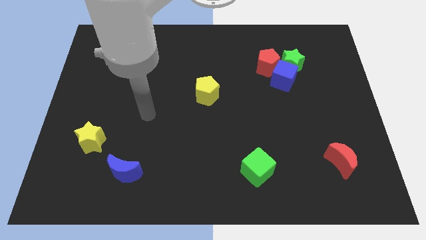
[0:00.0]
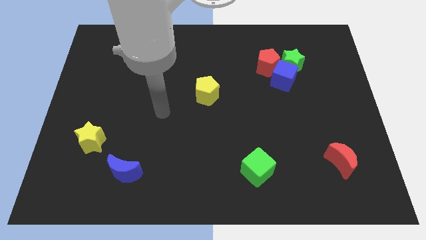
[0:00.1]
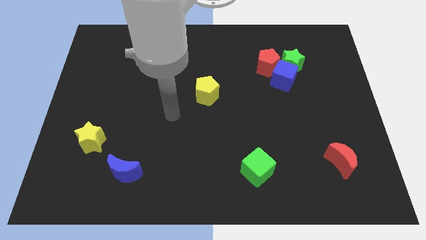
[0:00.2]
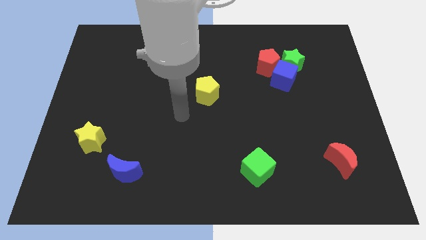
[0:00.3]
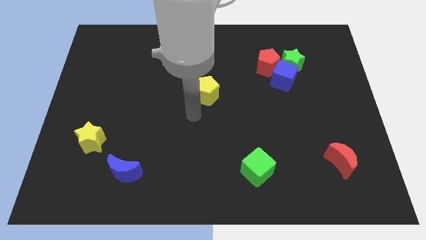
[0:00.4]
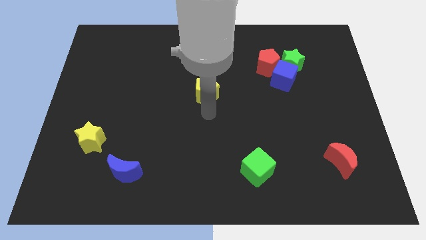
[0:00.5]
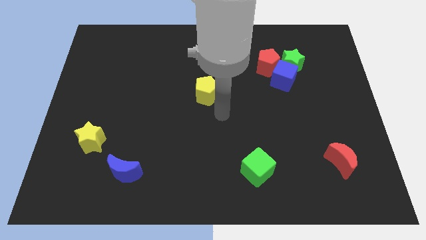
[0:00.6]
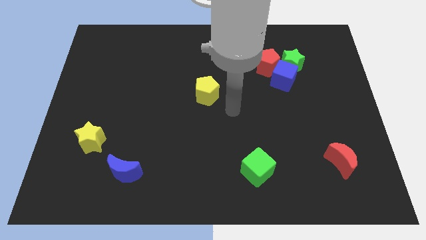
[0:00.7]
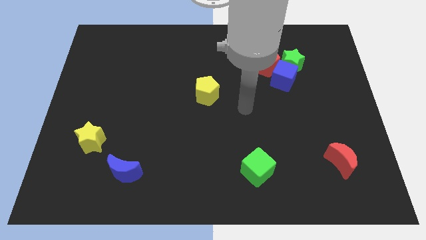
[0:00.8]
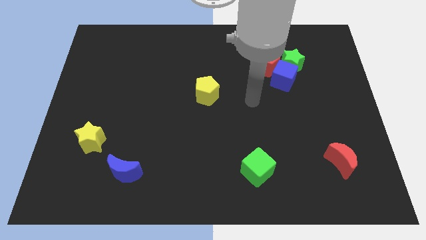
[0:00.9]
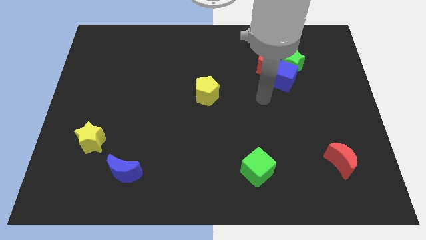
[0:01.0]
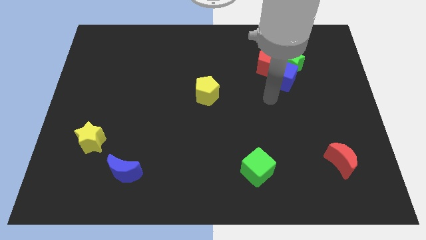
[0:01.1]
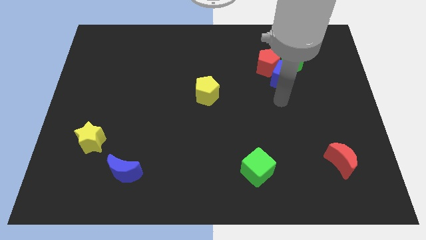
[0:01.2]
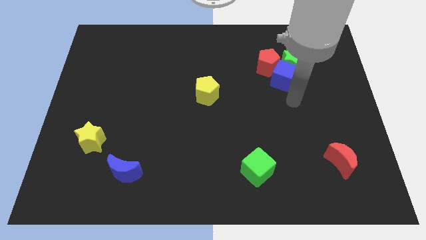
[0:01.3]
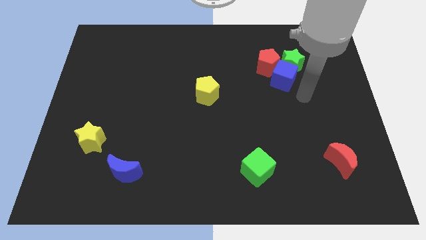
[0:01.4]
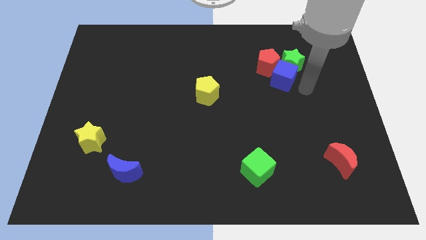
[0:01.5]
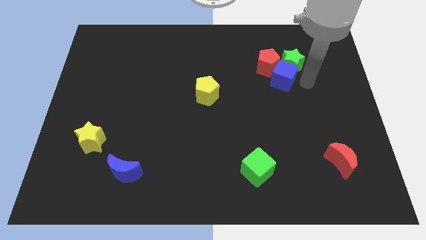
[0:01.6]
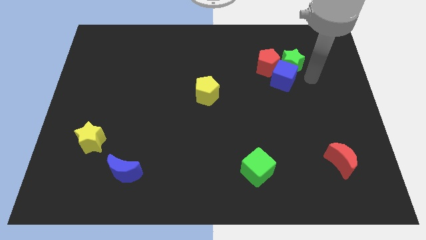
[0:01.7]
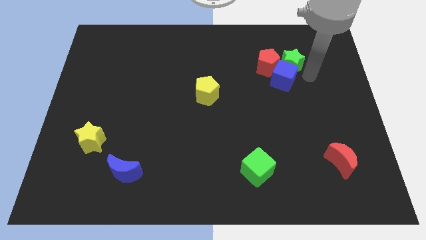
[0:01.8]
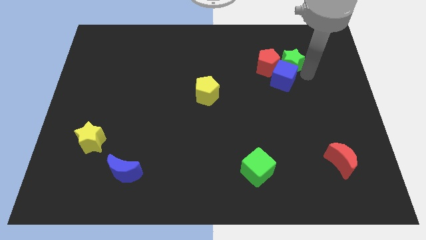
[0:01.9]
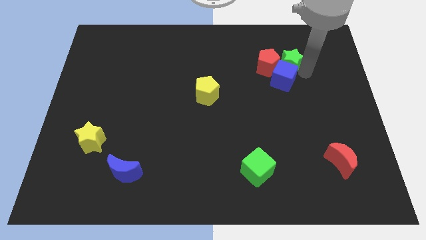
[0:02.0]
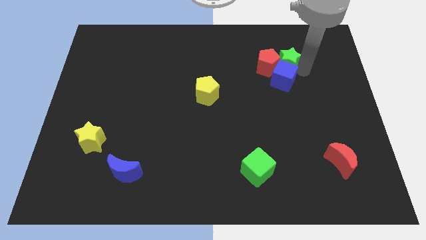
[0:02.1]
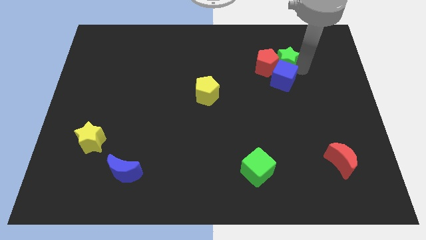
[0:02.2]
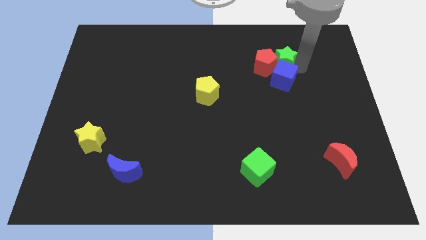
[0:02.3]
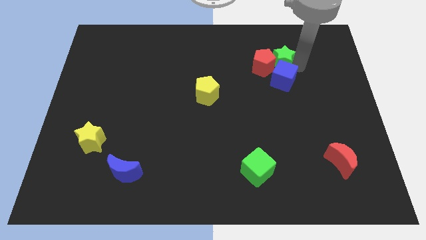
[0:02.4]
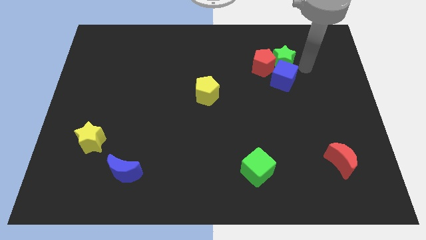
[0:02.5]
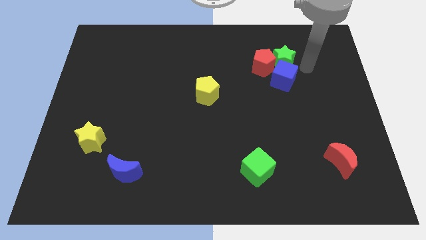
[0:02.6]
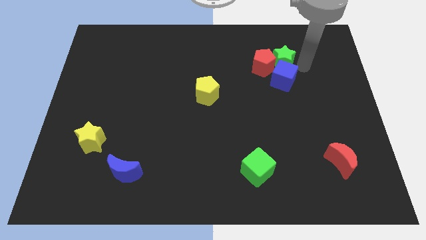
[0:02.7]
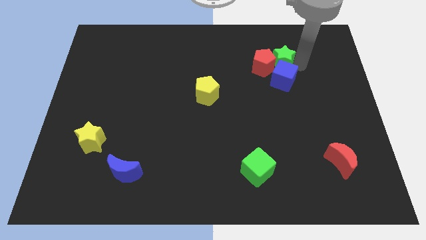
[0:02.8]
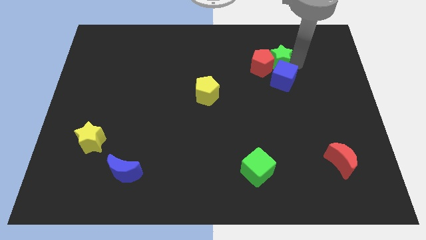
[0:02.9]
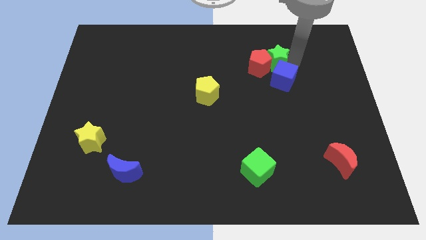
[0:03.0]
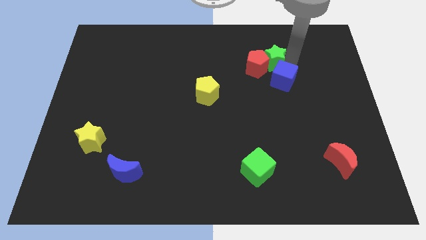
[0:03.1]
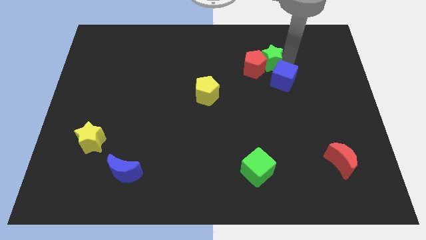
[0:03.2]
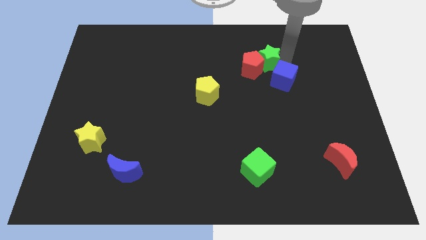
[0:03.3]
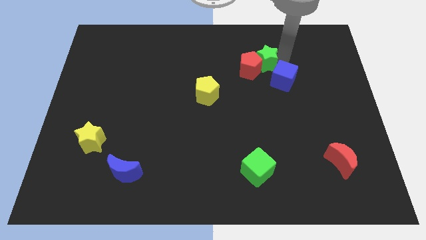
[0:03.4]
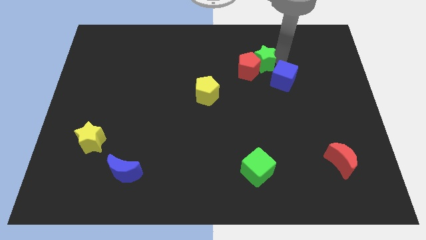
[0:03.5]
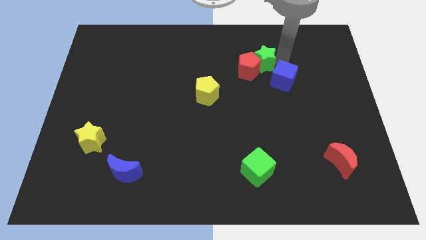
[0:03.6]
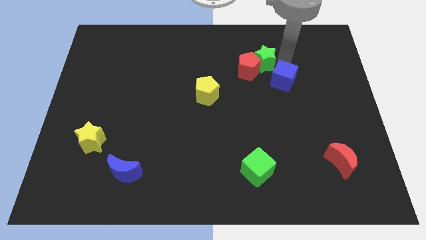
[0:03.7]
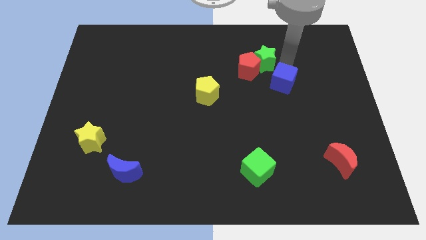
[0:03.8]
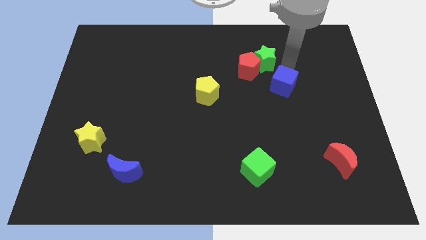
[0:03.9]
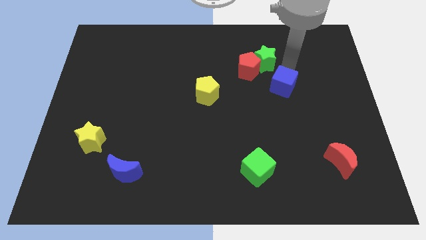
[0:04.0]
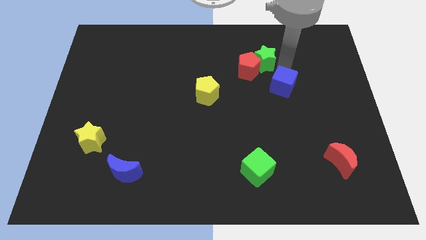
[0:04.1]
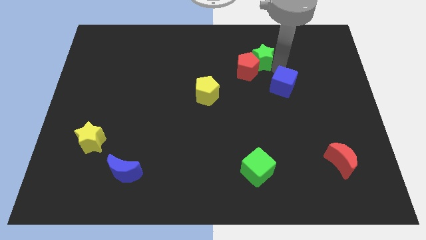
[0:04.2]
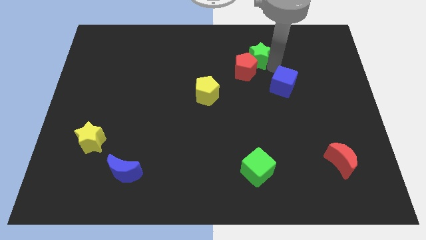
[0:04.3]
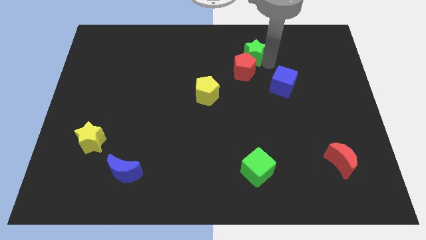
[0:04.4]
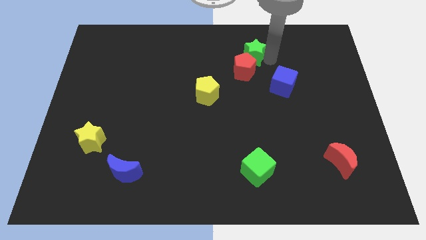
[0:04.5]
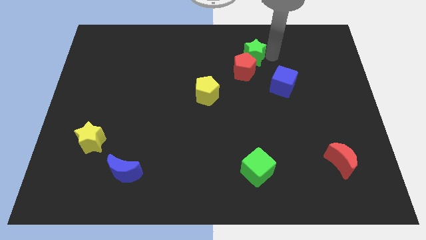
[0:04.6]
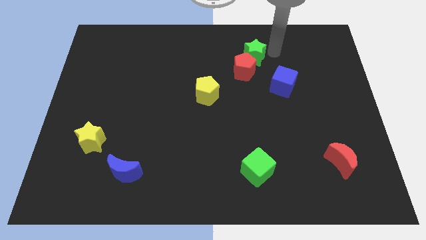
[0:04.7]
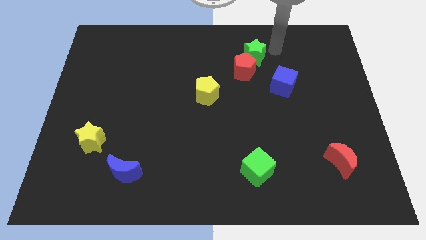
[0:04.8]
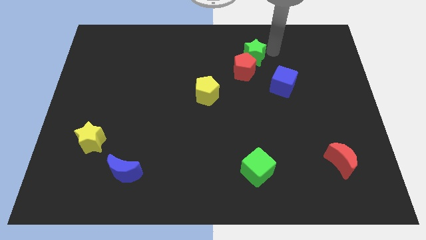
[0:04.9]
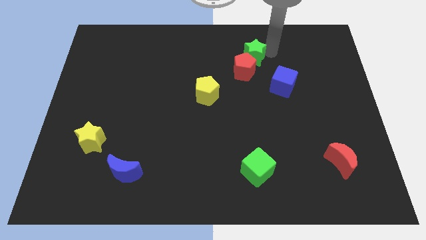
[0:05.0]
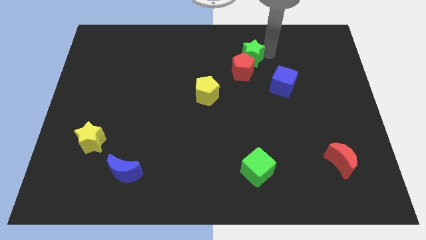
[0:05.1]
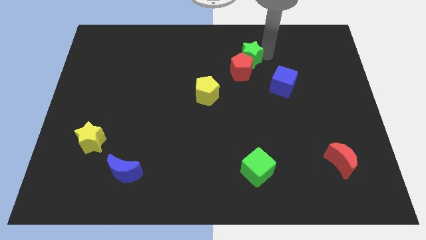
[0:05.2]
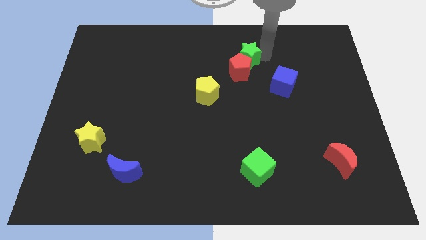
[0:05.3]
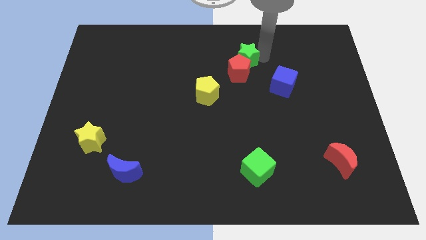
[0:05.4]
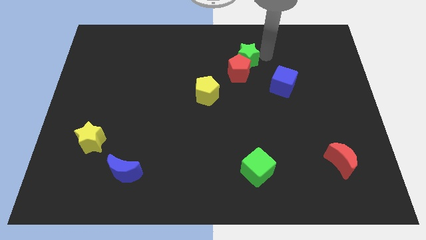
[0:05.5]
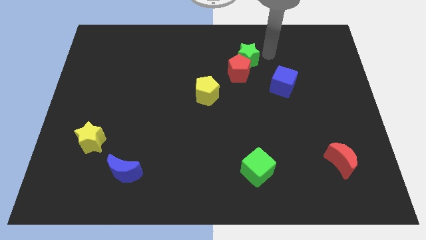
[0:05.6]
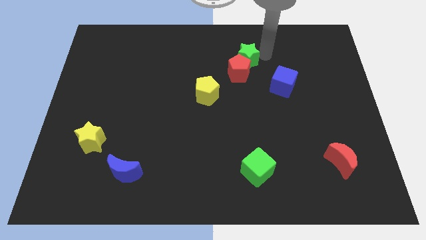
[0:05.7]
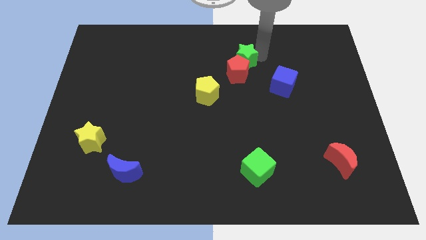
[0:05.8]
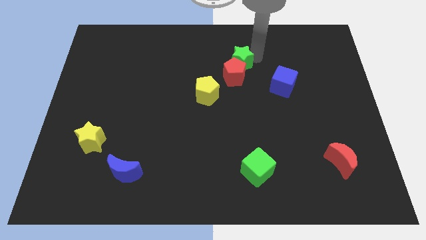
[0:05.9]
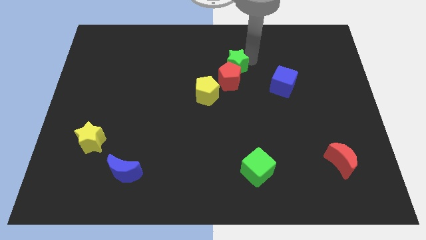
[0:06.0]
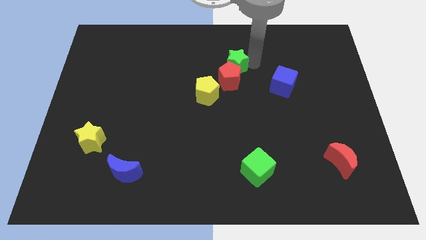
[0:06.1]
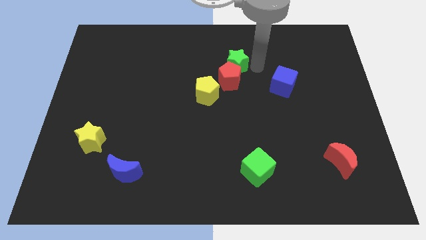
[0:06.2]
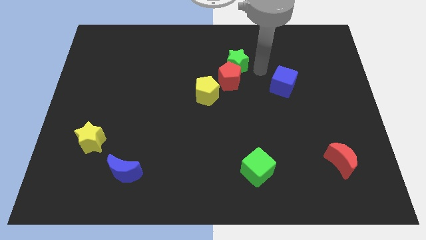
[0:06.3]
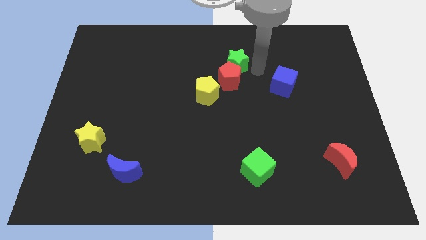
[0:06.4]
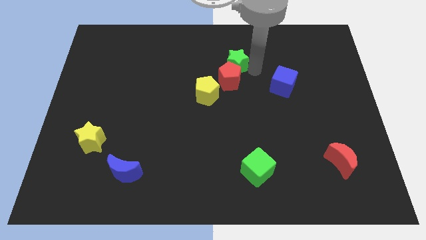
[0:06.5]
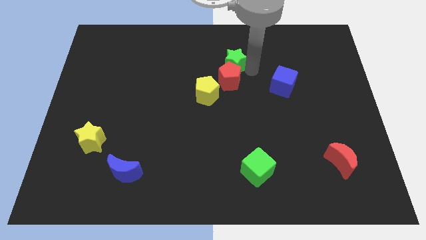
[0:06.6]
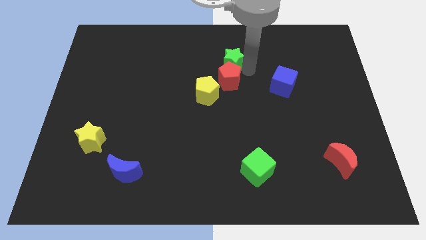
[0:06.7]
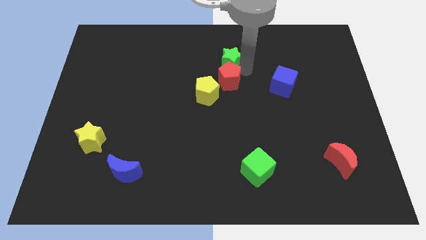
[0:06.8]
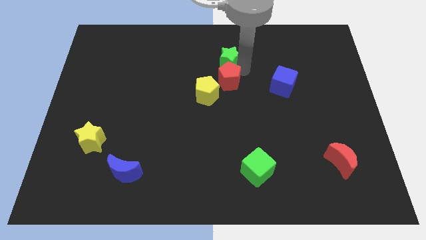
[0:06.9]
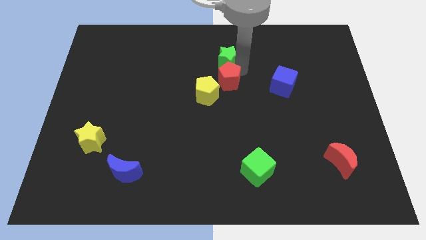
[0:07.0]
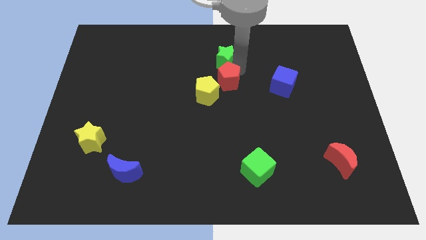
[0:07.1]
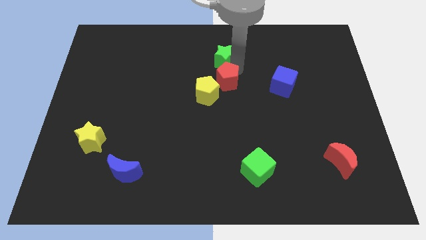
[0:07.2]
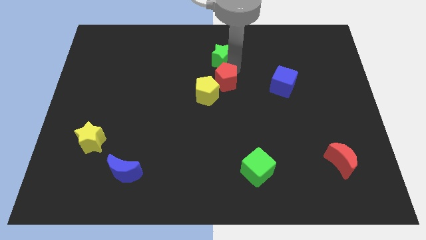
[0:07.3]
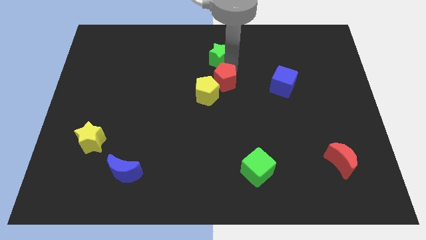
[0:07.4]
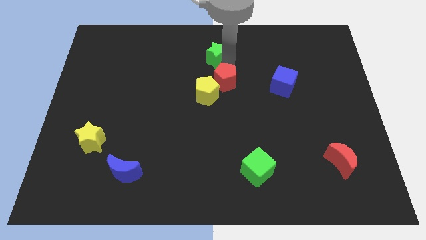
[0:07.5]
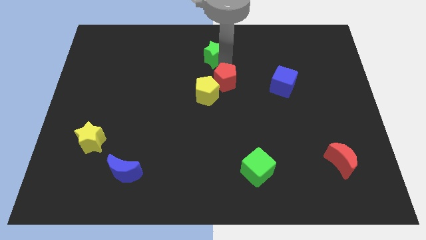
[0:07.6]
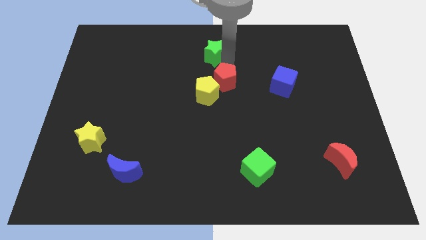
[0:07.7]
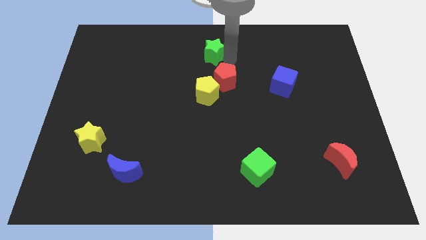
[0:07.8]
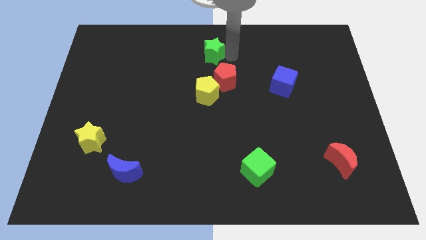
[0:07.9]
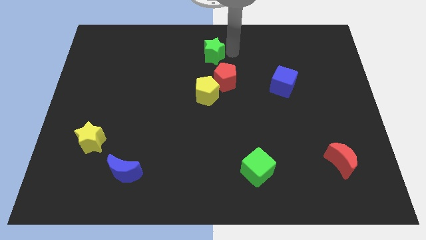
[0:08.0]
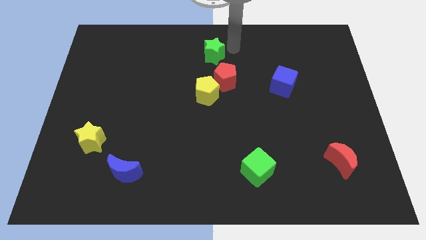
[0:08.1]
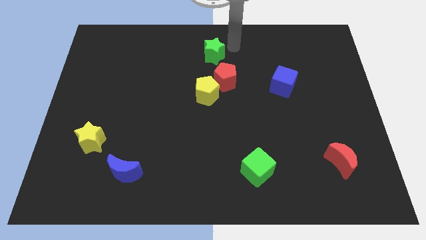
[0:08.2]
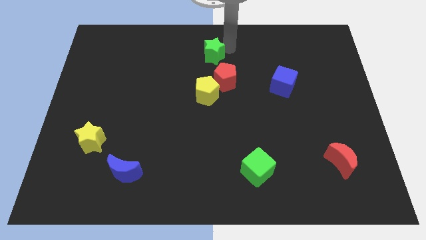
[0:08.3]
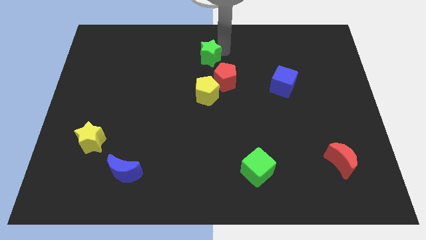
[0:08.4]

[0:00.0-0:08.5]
slide the green star to the left
